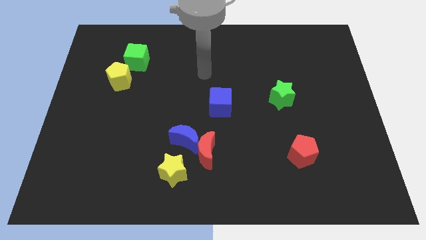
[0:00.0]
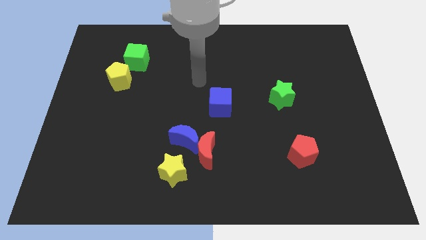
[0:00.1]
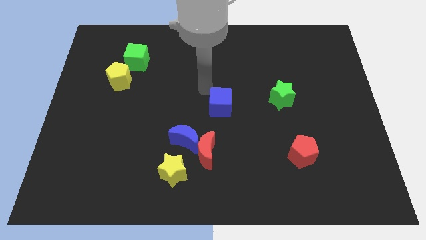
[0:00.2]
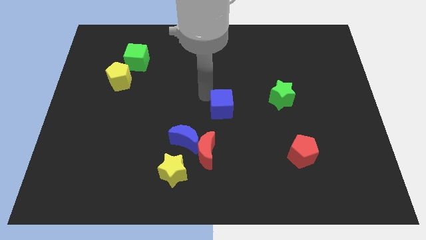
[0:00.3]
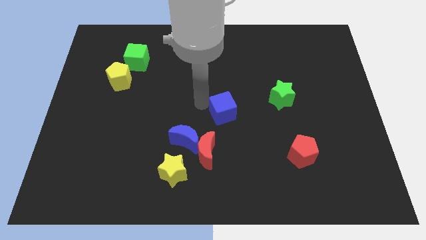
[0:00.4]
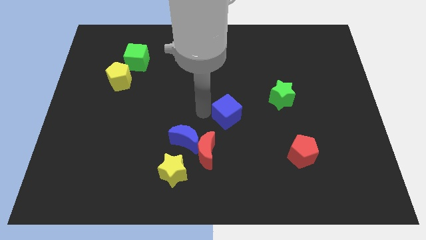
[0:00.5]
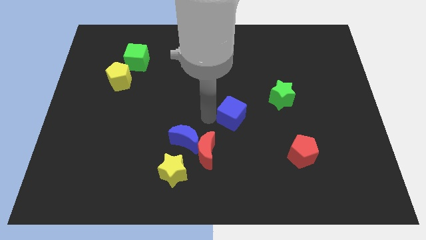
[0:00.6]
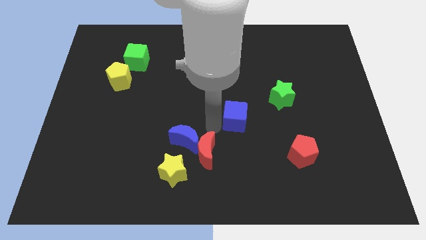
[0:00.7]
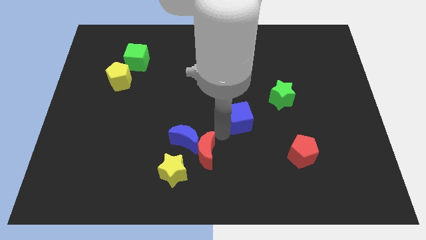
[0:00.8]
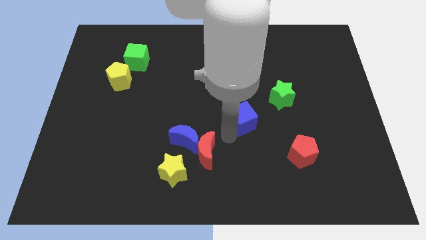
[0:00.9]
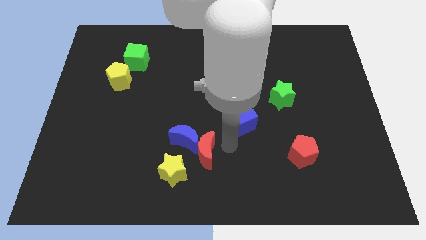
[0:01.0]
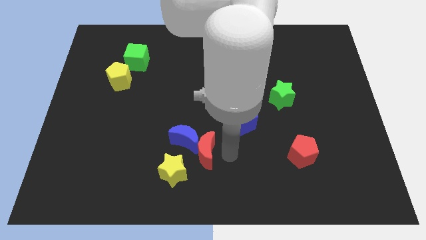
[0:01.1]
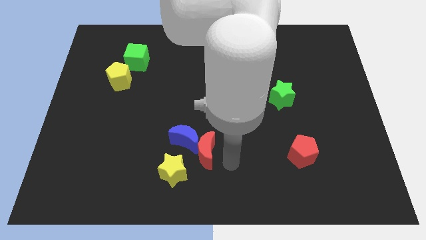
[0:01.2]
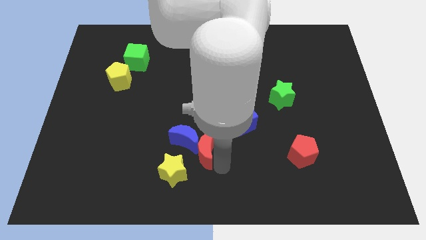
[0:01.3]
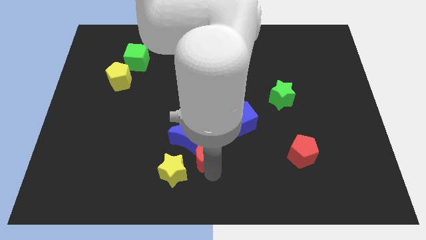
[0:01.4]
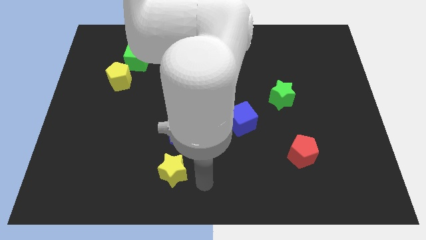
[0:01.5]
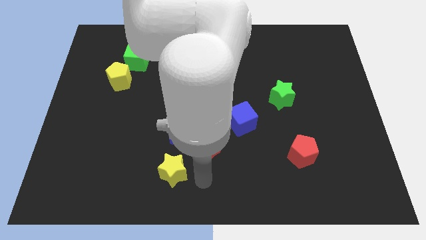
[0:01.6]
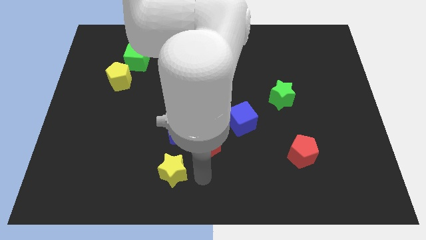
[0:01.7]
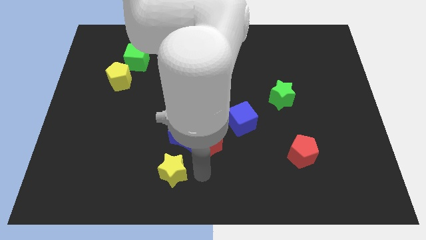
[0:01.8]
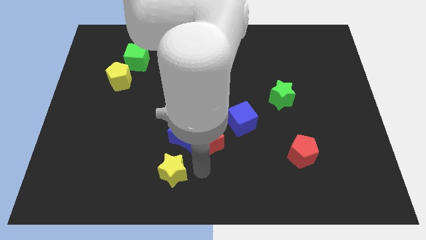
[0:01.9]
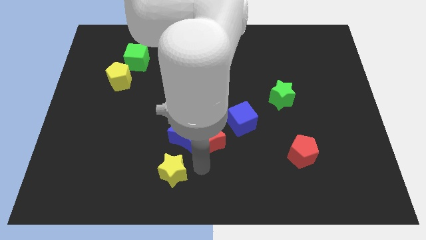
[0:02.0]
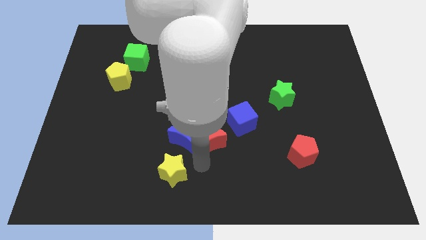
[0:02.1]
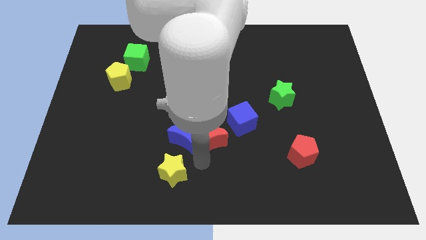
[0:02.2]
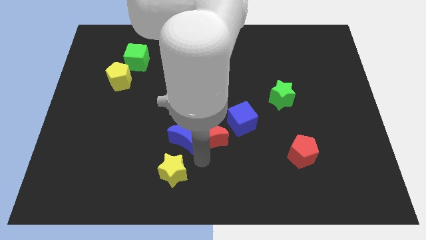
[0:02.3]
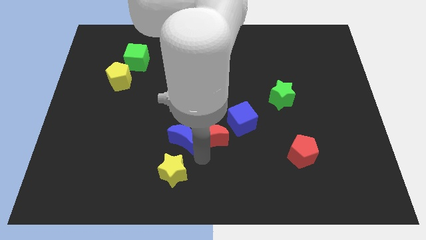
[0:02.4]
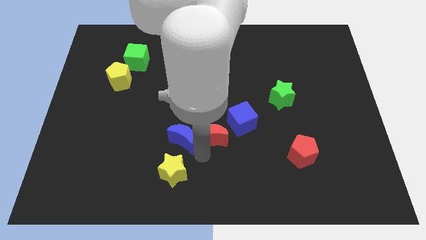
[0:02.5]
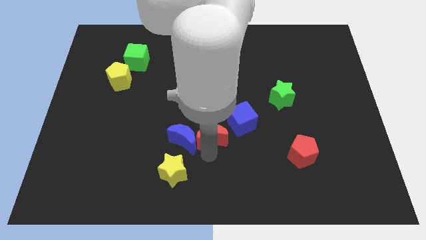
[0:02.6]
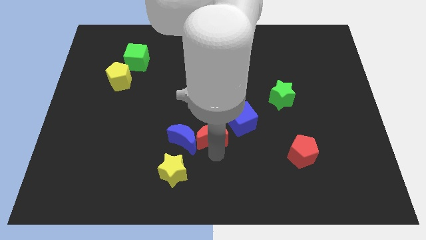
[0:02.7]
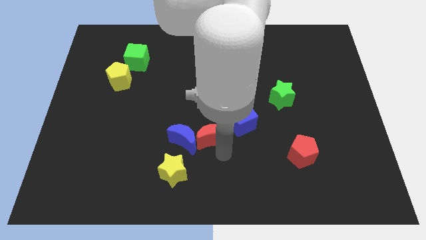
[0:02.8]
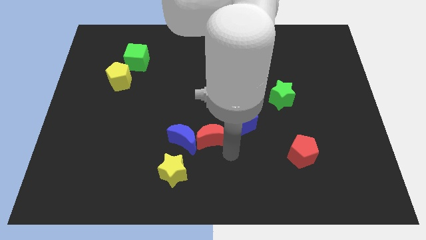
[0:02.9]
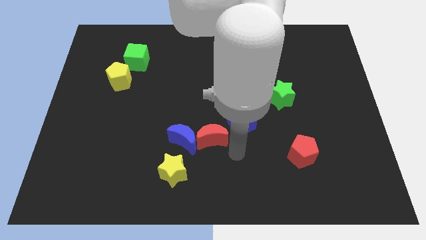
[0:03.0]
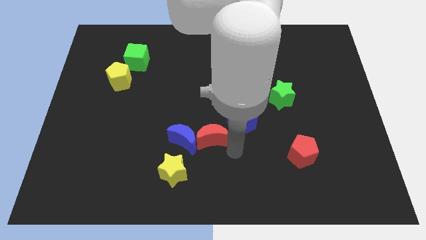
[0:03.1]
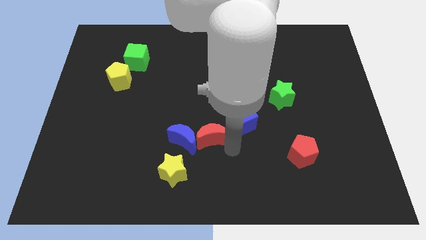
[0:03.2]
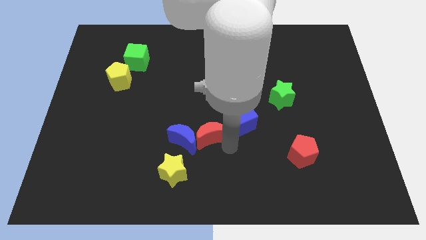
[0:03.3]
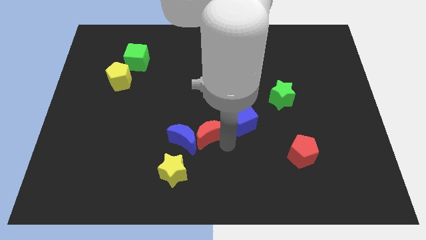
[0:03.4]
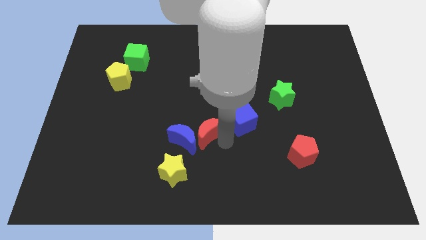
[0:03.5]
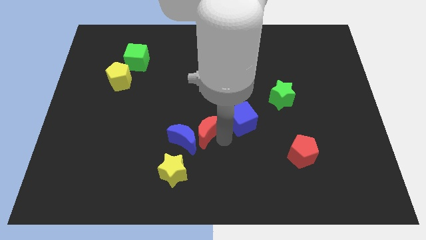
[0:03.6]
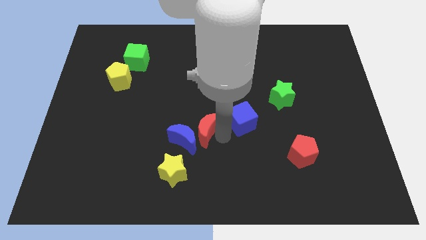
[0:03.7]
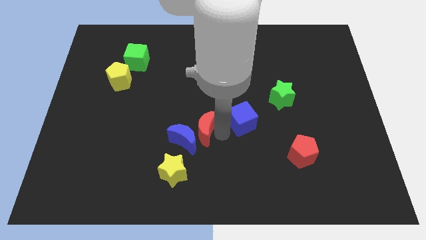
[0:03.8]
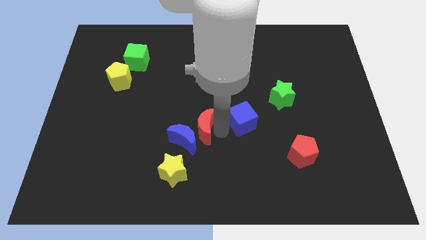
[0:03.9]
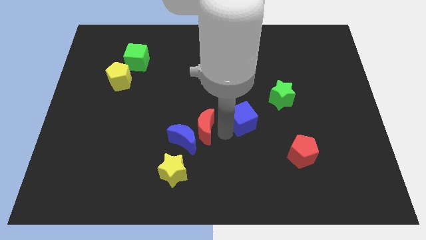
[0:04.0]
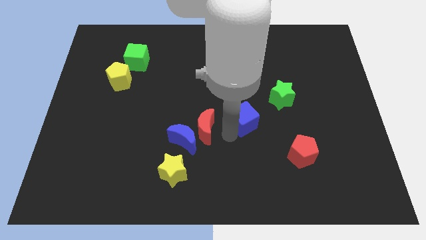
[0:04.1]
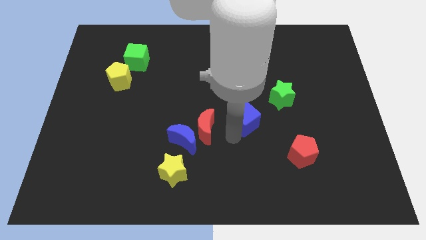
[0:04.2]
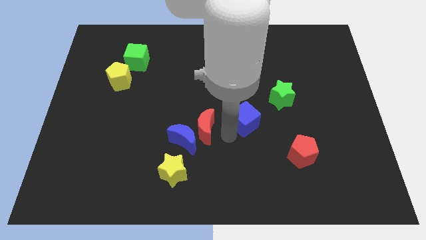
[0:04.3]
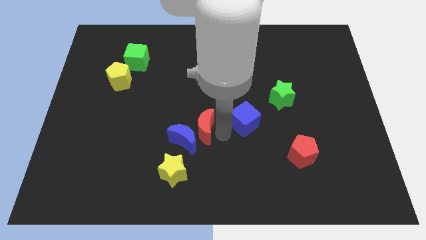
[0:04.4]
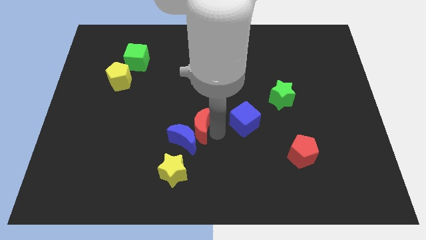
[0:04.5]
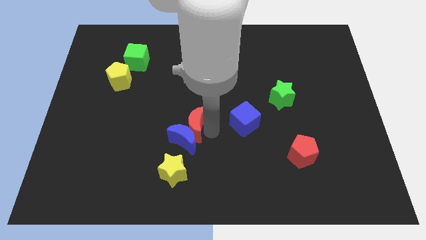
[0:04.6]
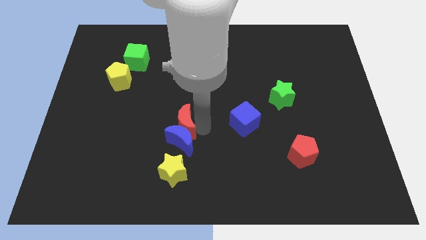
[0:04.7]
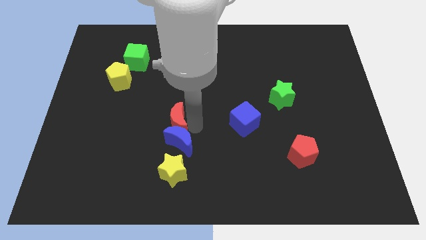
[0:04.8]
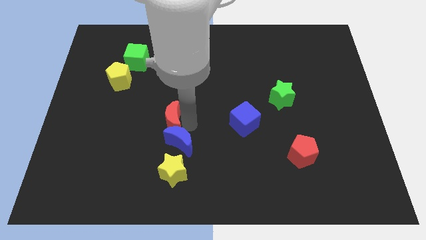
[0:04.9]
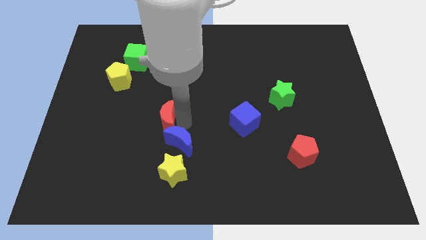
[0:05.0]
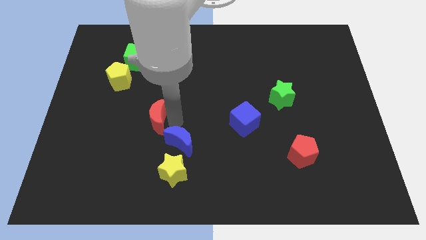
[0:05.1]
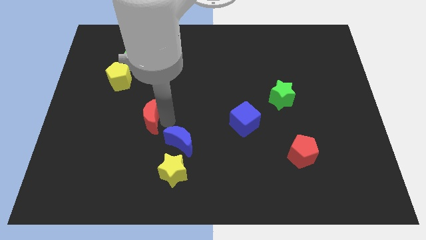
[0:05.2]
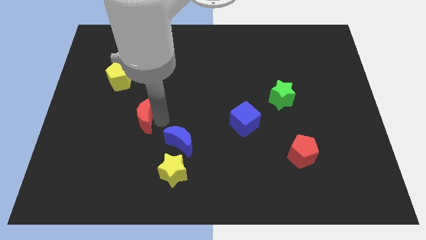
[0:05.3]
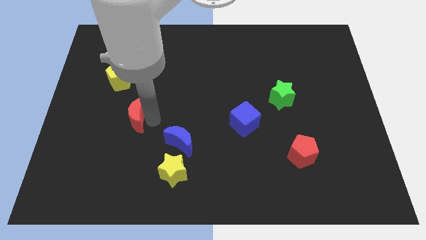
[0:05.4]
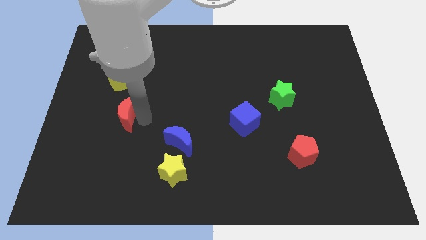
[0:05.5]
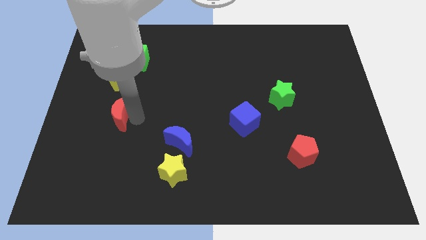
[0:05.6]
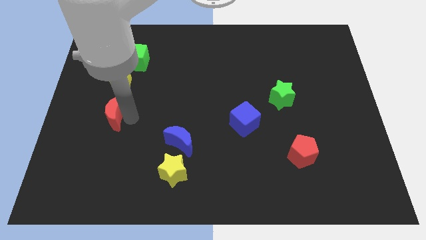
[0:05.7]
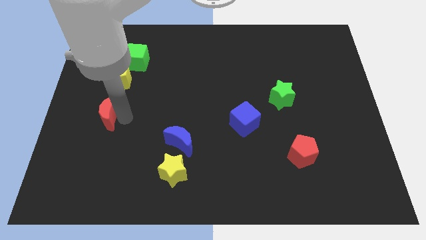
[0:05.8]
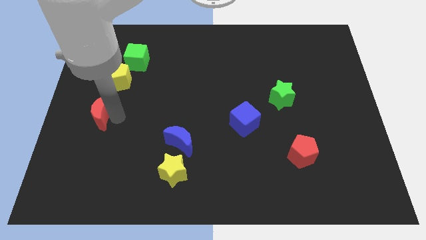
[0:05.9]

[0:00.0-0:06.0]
push the red moon to the left side

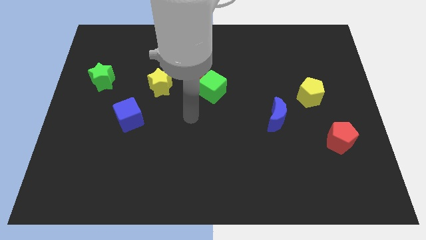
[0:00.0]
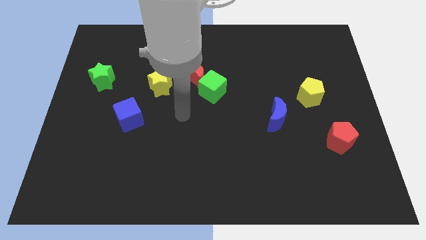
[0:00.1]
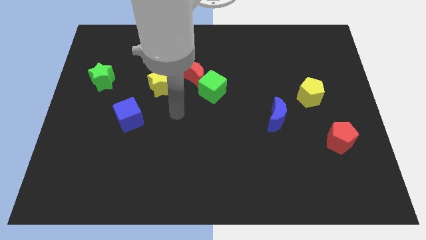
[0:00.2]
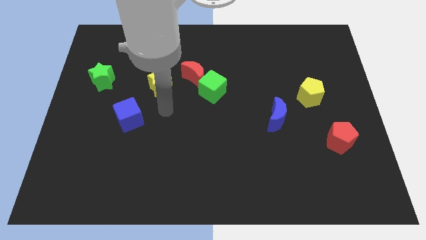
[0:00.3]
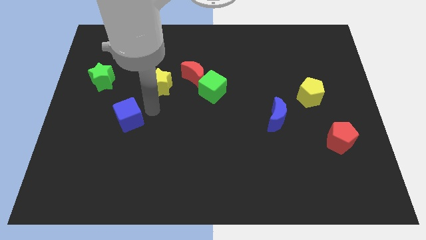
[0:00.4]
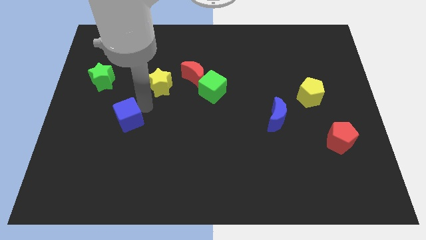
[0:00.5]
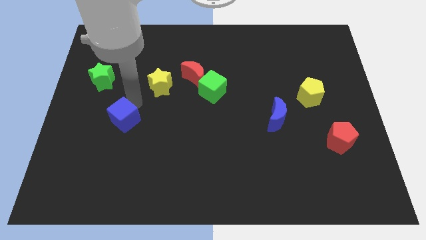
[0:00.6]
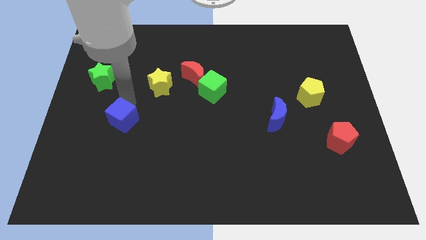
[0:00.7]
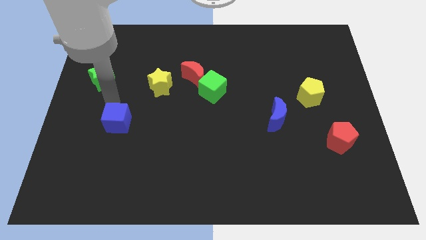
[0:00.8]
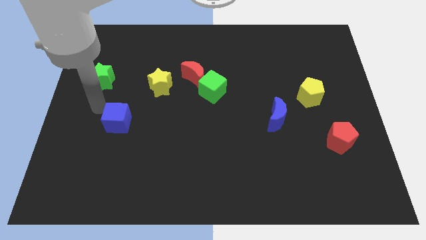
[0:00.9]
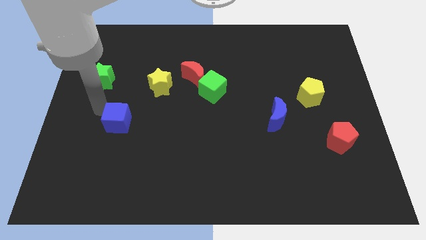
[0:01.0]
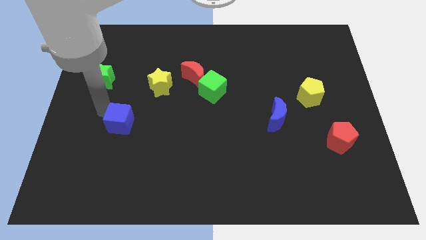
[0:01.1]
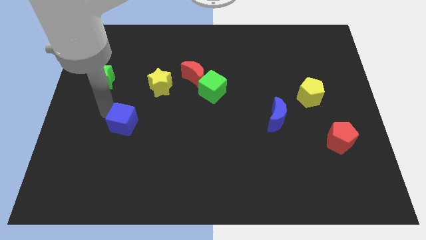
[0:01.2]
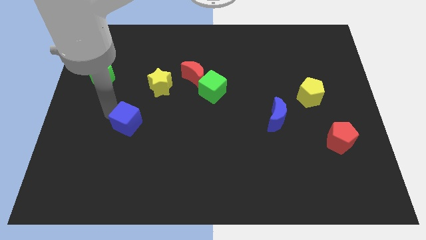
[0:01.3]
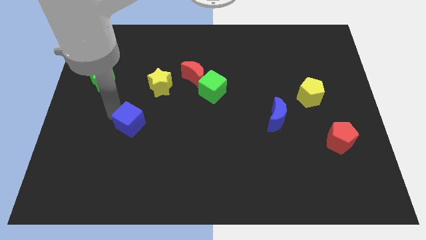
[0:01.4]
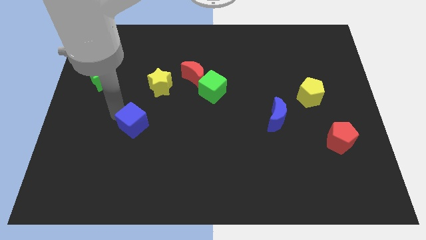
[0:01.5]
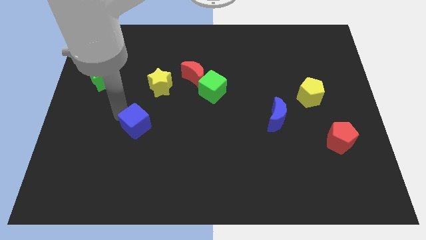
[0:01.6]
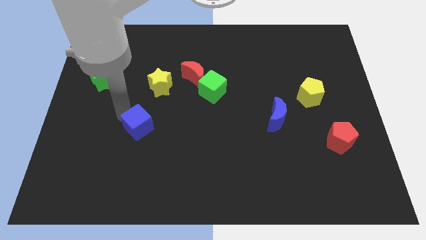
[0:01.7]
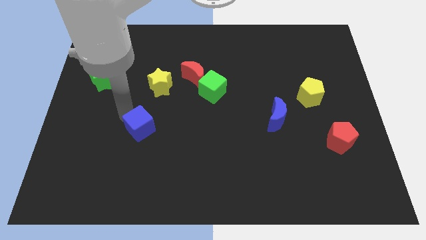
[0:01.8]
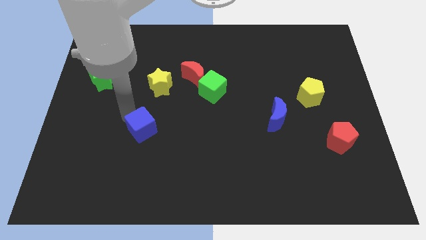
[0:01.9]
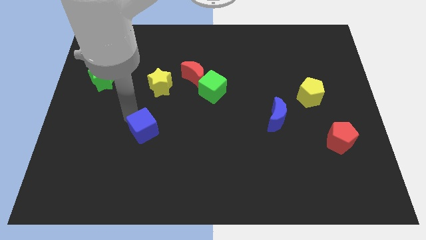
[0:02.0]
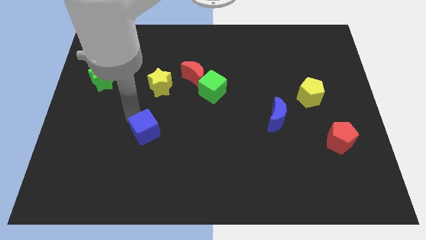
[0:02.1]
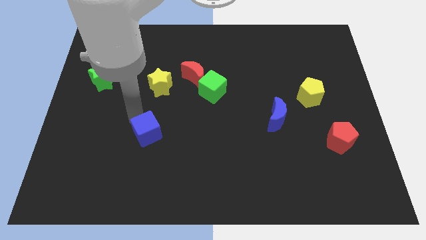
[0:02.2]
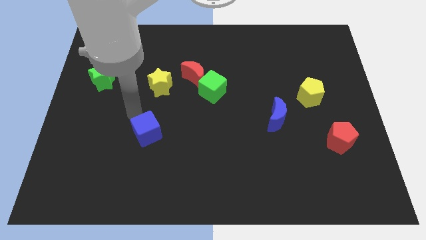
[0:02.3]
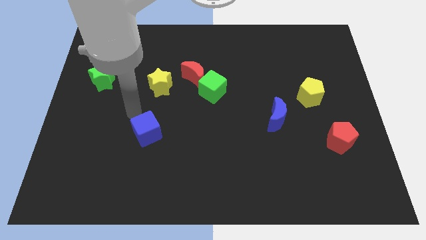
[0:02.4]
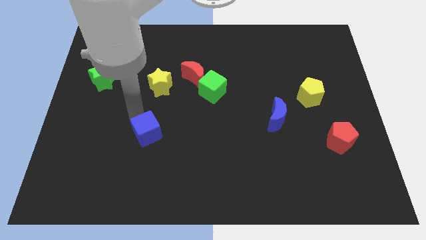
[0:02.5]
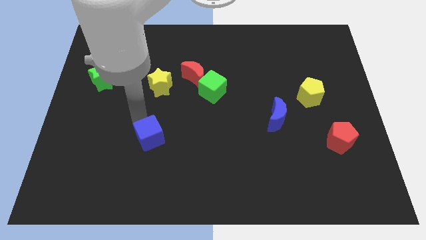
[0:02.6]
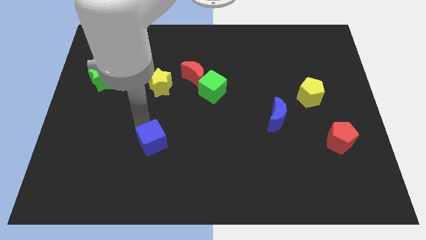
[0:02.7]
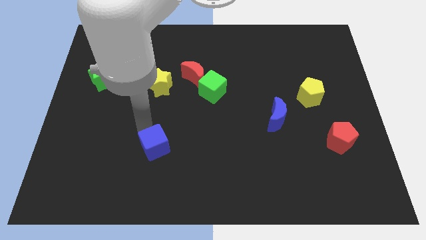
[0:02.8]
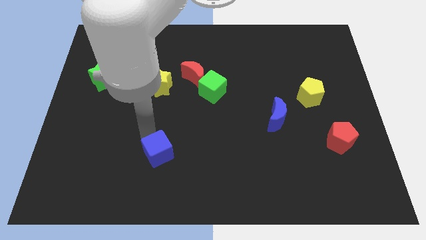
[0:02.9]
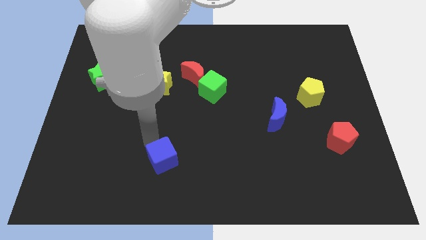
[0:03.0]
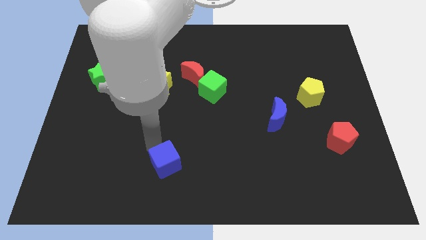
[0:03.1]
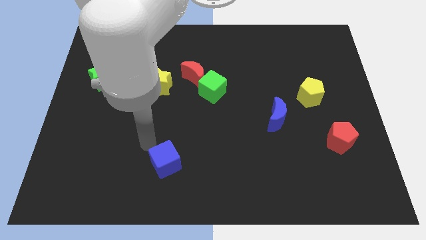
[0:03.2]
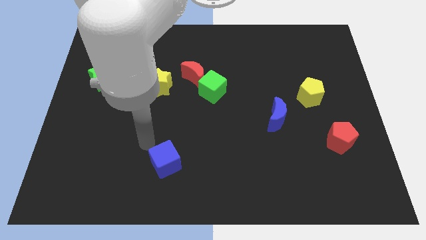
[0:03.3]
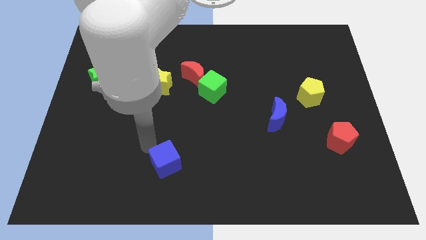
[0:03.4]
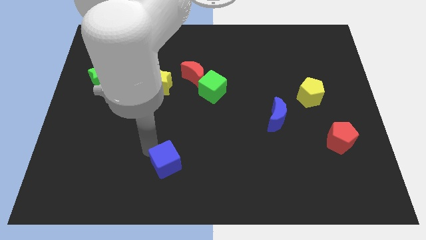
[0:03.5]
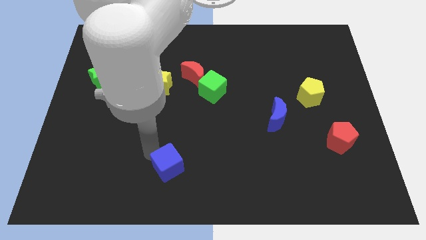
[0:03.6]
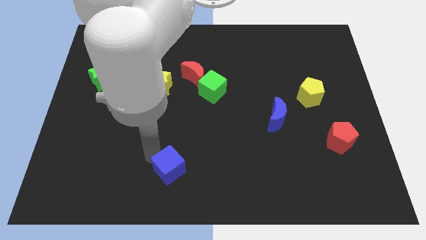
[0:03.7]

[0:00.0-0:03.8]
move the blue cube to the bottom side
